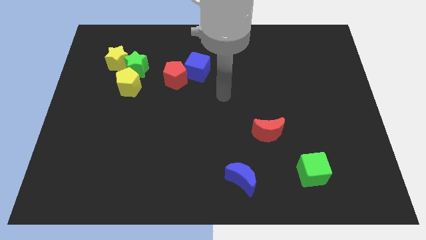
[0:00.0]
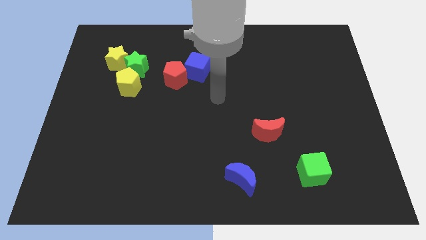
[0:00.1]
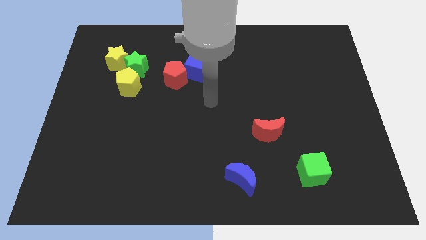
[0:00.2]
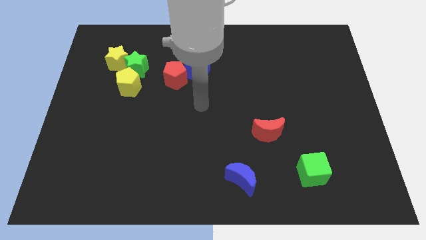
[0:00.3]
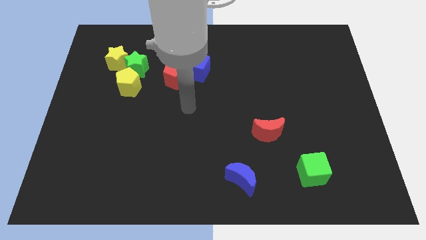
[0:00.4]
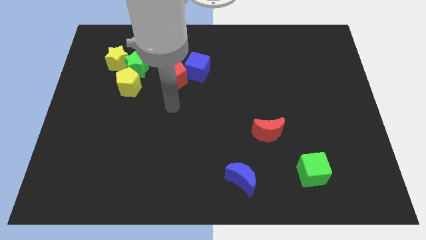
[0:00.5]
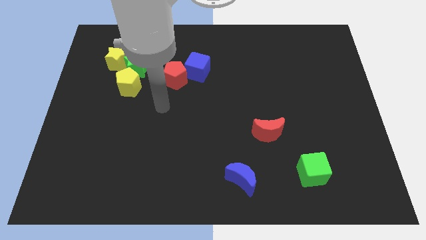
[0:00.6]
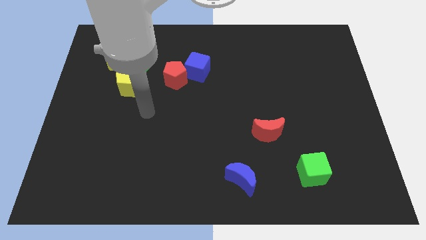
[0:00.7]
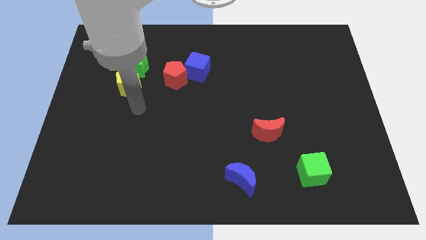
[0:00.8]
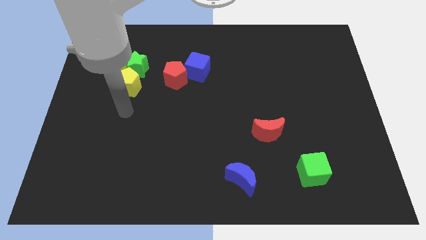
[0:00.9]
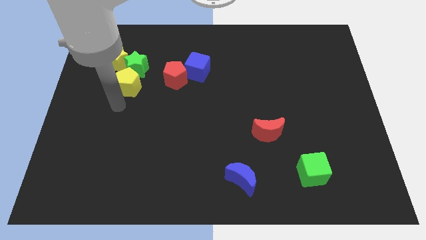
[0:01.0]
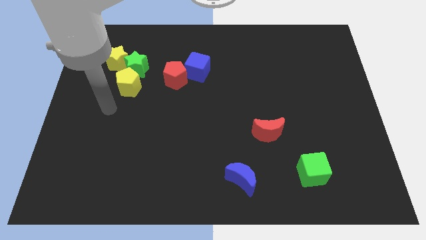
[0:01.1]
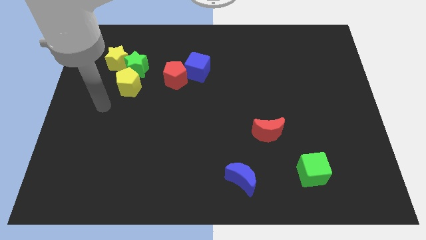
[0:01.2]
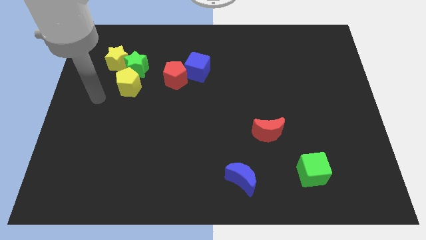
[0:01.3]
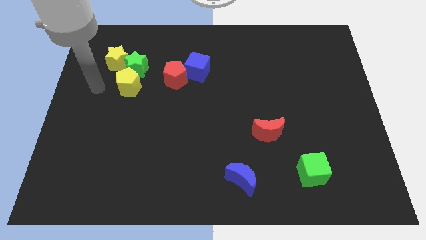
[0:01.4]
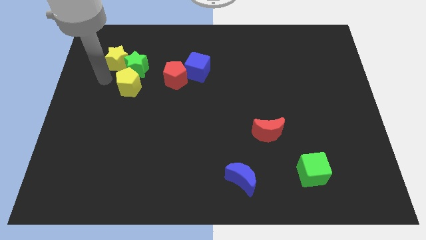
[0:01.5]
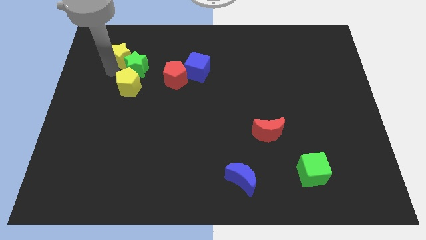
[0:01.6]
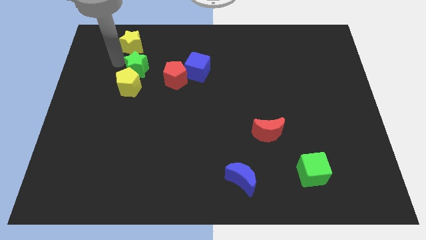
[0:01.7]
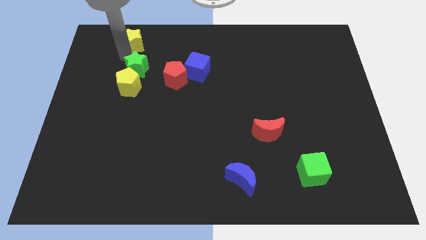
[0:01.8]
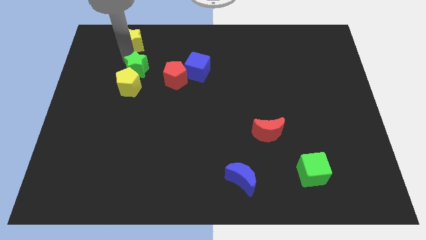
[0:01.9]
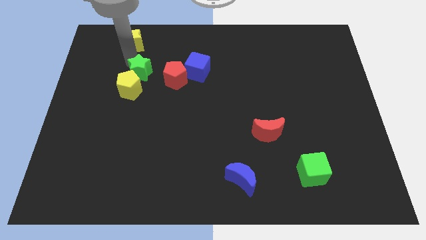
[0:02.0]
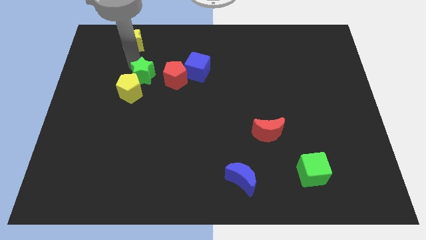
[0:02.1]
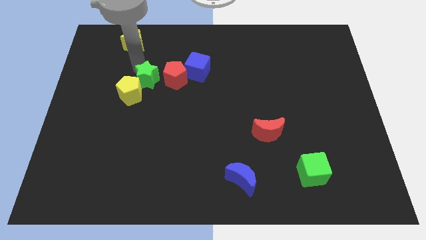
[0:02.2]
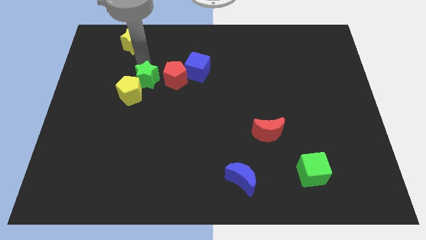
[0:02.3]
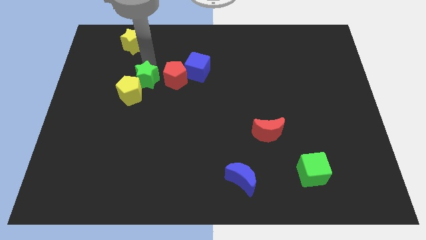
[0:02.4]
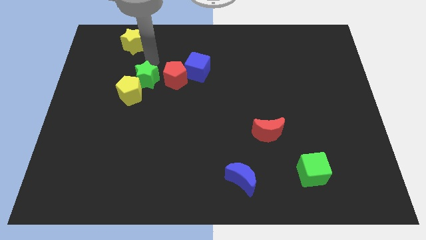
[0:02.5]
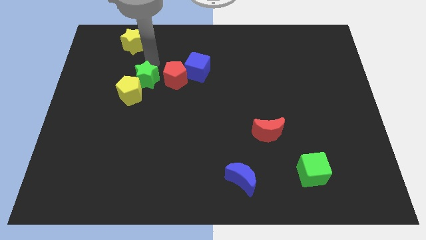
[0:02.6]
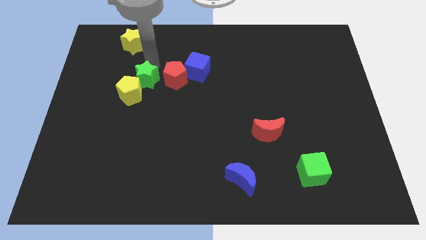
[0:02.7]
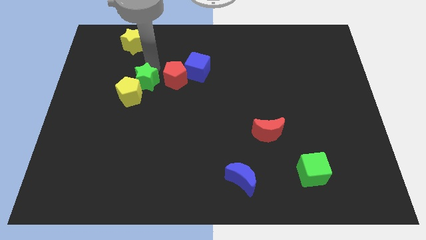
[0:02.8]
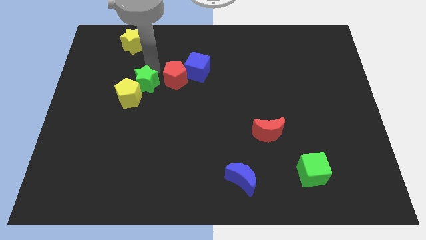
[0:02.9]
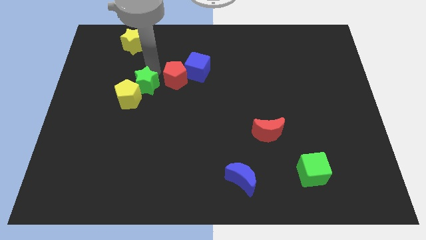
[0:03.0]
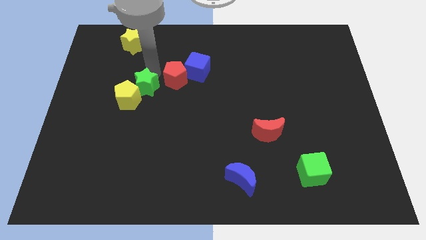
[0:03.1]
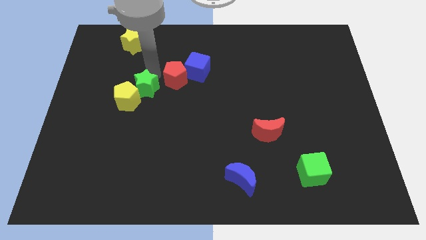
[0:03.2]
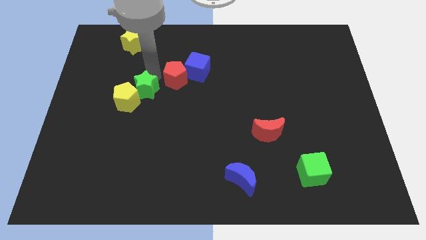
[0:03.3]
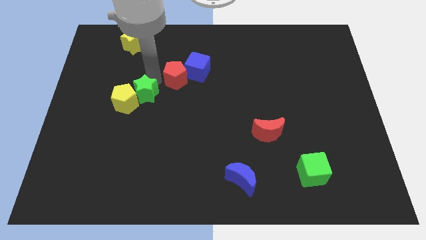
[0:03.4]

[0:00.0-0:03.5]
slightly push the green star down

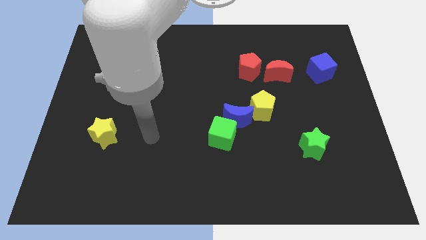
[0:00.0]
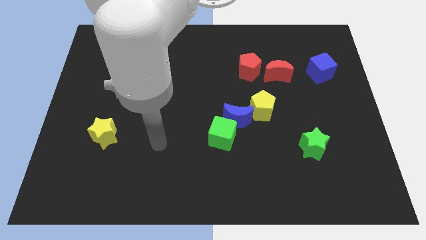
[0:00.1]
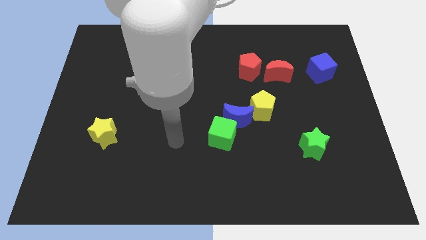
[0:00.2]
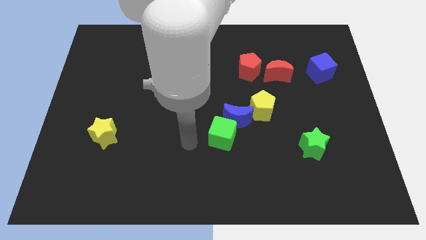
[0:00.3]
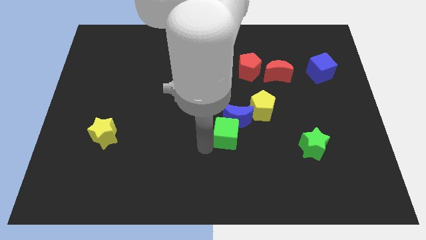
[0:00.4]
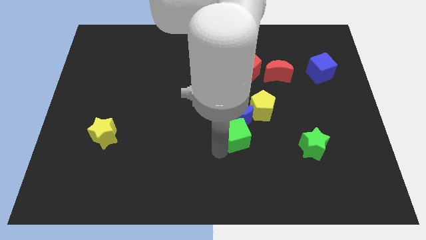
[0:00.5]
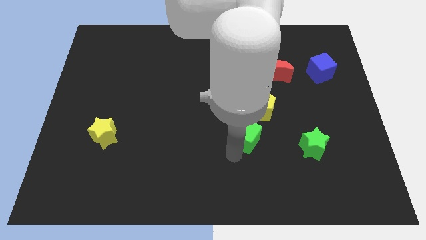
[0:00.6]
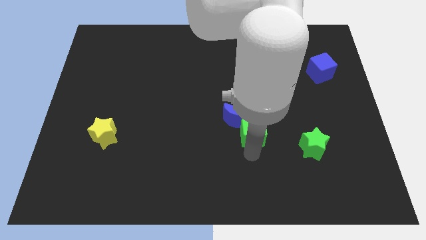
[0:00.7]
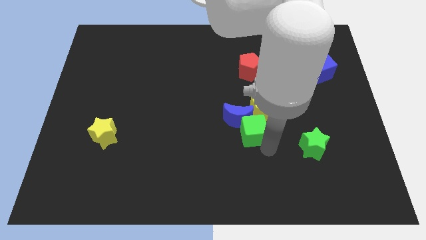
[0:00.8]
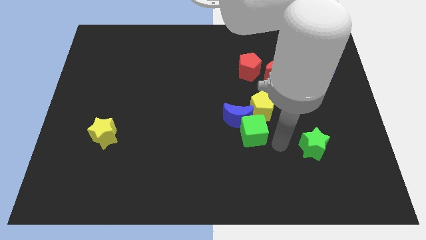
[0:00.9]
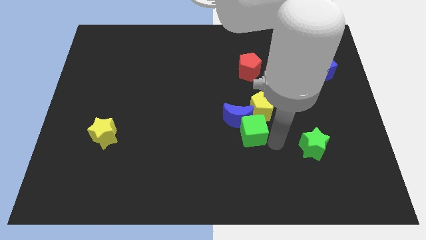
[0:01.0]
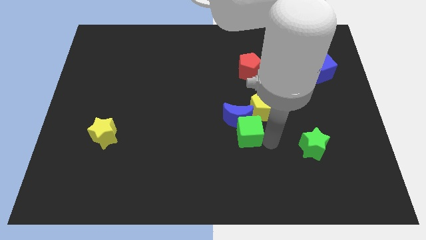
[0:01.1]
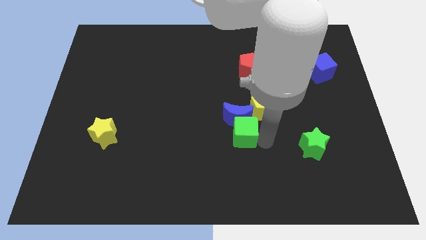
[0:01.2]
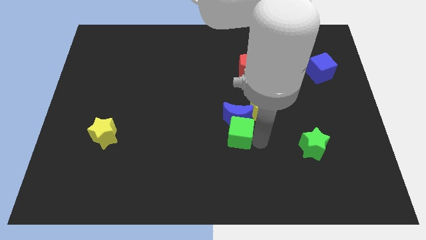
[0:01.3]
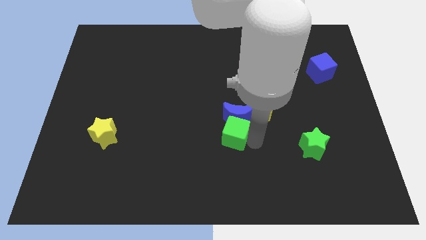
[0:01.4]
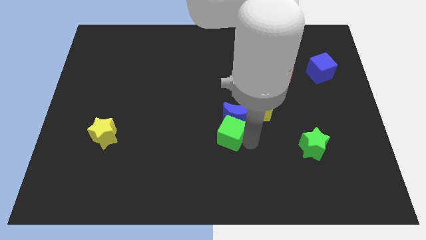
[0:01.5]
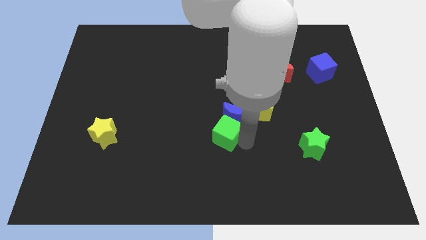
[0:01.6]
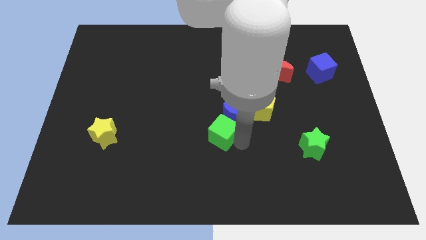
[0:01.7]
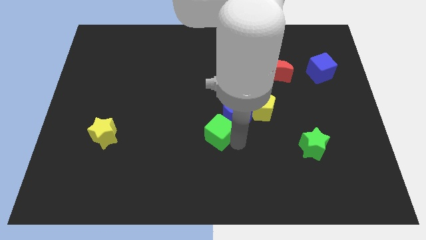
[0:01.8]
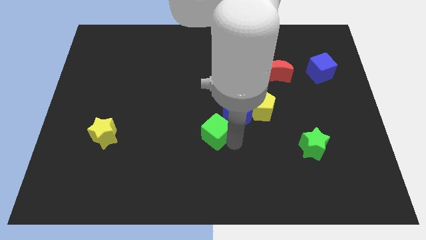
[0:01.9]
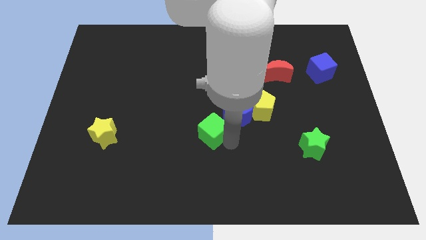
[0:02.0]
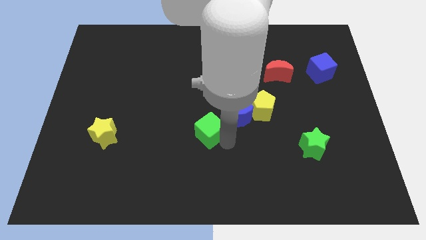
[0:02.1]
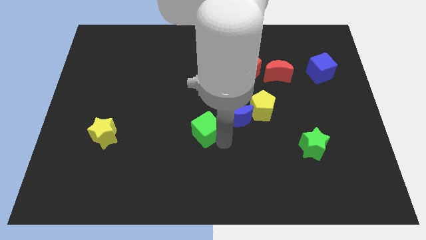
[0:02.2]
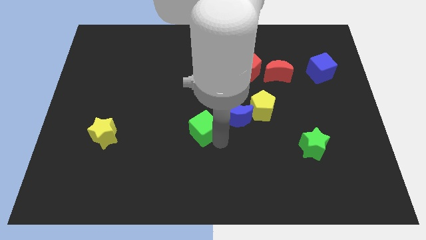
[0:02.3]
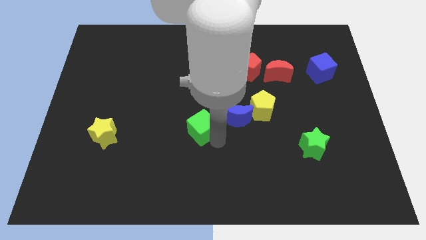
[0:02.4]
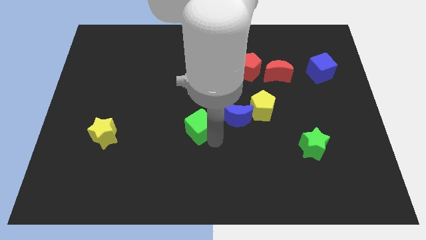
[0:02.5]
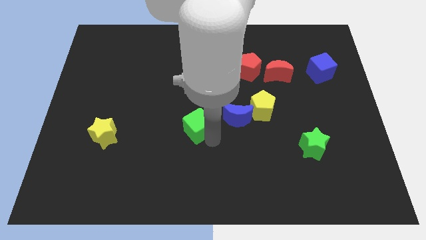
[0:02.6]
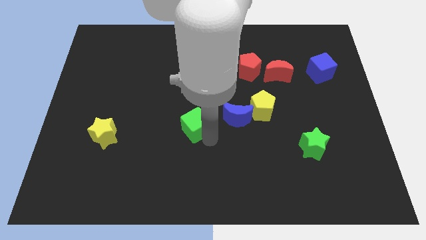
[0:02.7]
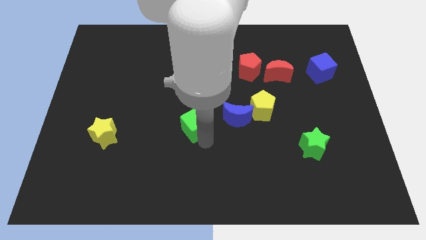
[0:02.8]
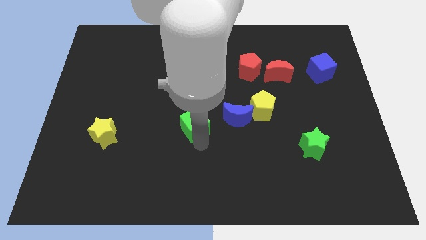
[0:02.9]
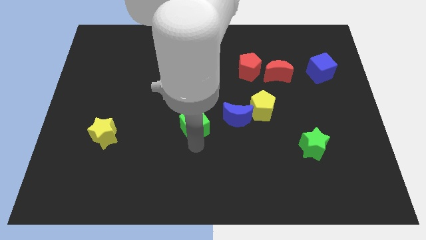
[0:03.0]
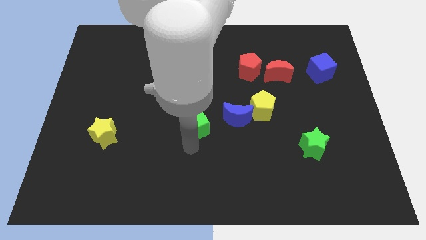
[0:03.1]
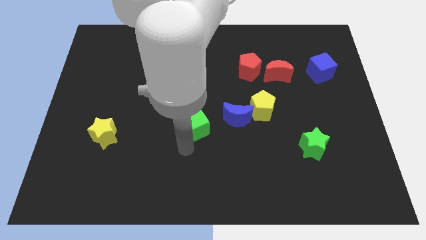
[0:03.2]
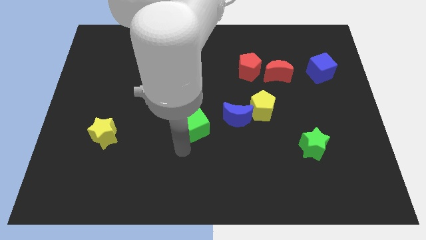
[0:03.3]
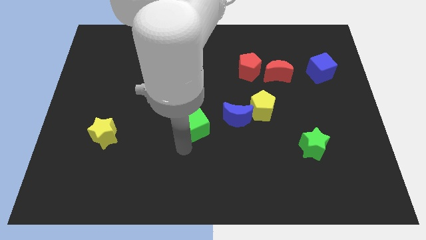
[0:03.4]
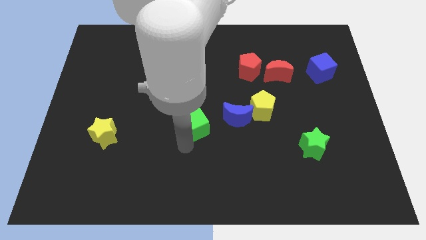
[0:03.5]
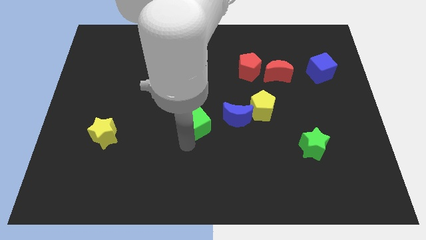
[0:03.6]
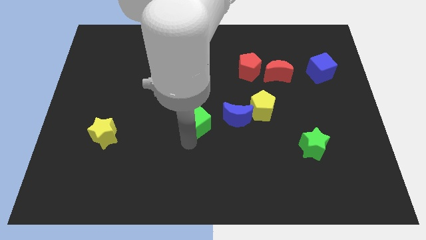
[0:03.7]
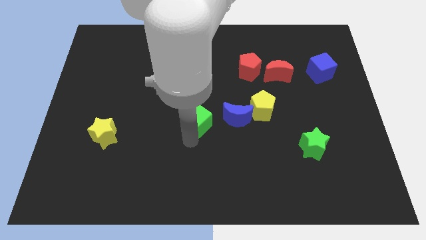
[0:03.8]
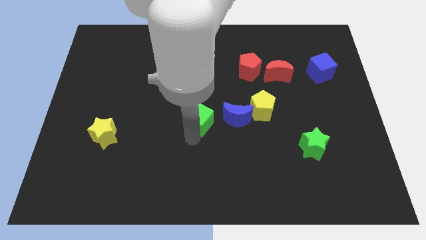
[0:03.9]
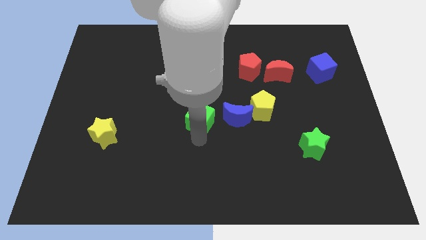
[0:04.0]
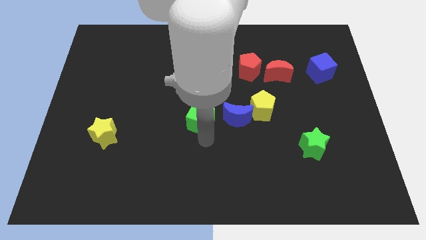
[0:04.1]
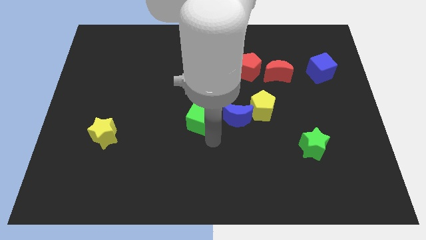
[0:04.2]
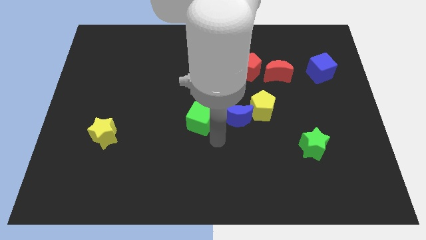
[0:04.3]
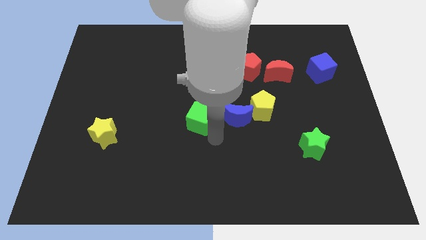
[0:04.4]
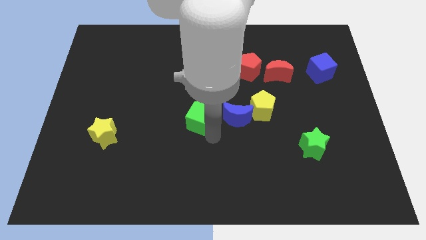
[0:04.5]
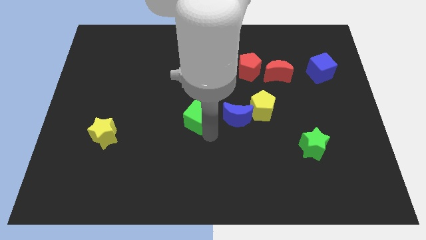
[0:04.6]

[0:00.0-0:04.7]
move the green cube somewhat up and left
